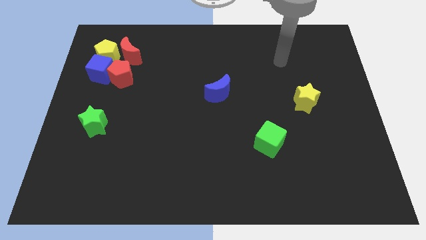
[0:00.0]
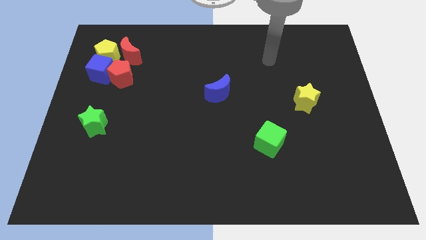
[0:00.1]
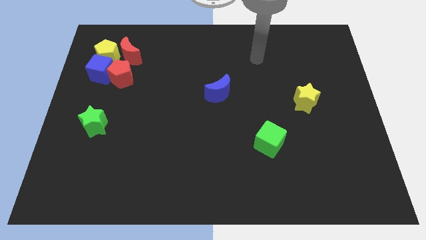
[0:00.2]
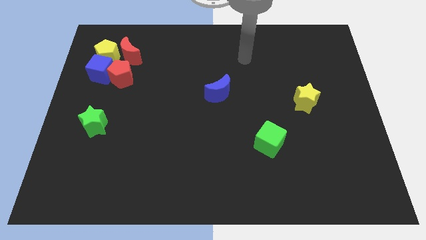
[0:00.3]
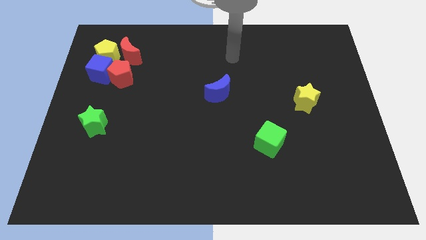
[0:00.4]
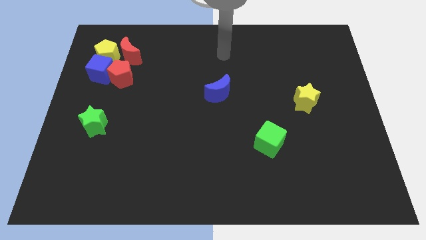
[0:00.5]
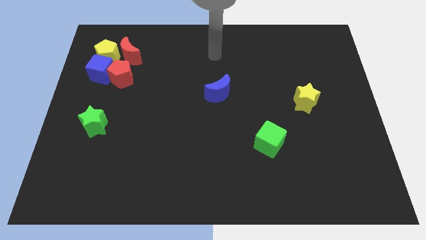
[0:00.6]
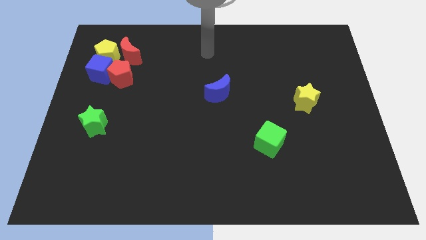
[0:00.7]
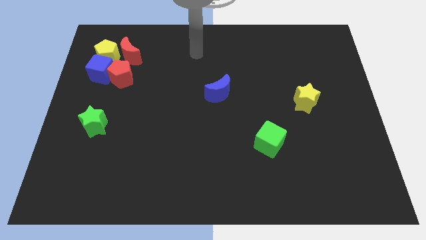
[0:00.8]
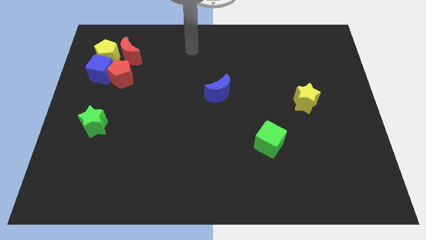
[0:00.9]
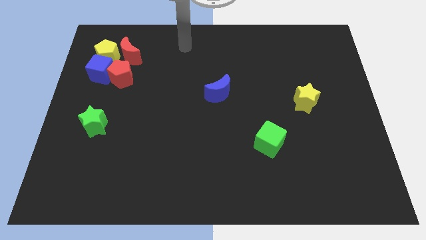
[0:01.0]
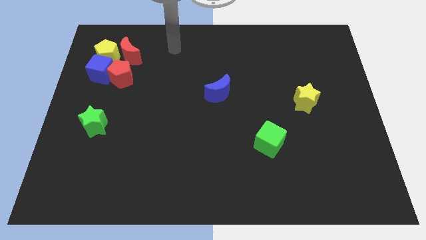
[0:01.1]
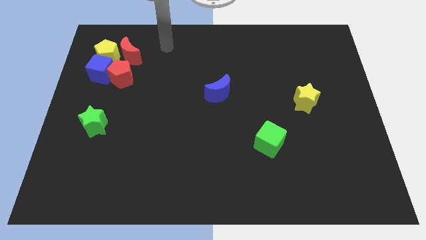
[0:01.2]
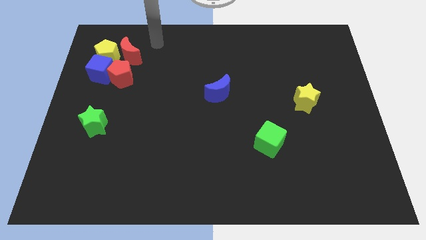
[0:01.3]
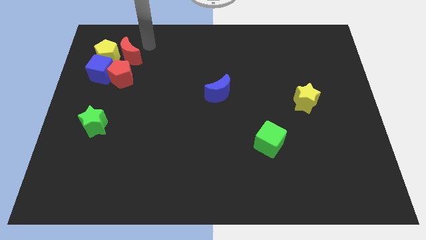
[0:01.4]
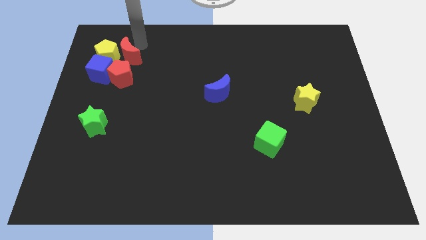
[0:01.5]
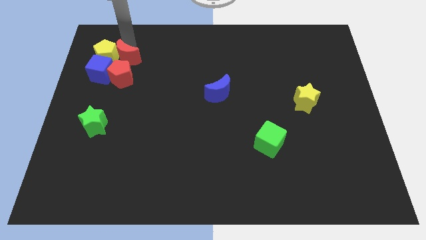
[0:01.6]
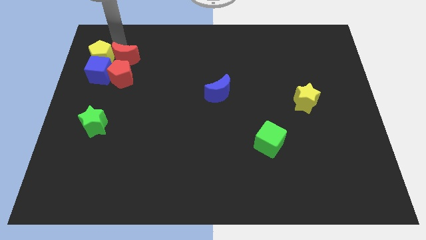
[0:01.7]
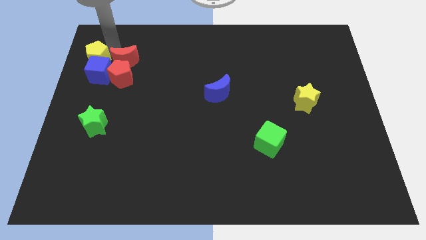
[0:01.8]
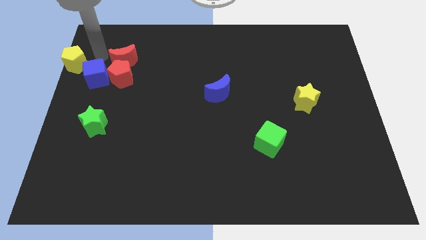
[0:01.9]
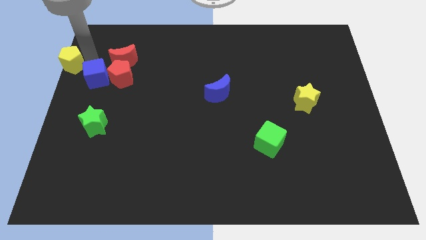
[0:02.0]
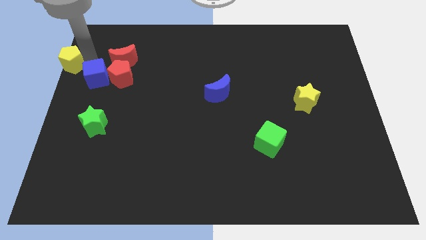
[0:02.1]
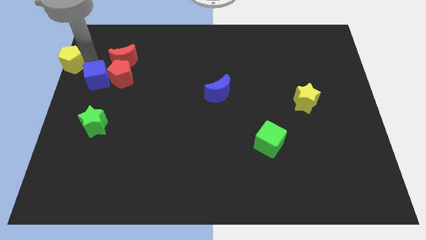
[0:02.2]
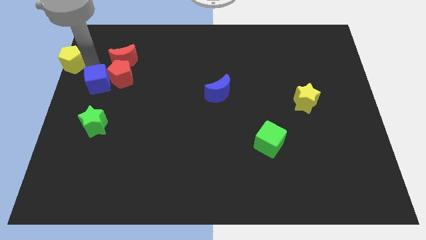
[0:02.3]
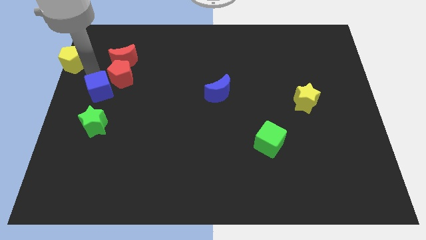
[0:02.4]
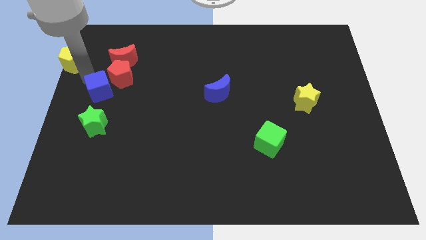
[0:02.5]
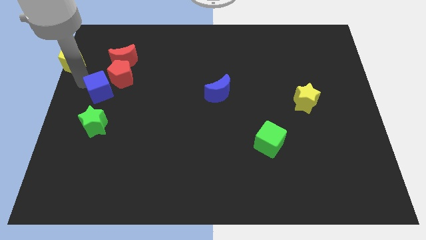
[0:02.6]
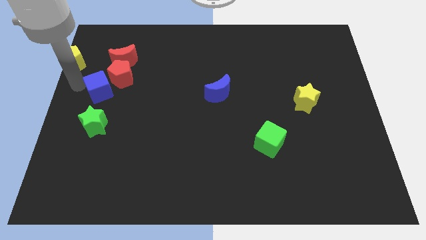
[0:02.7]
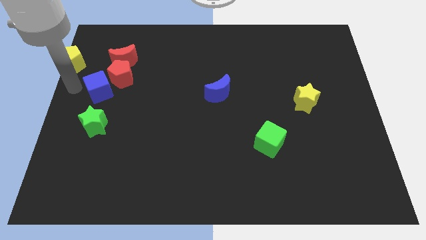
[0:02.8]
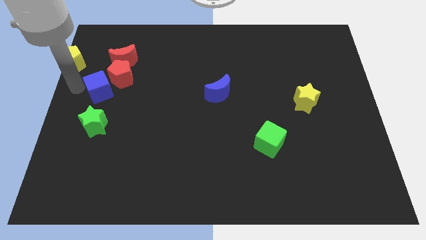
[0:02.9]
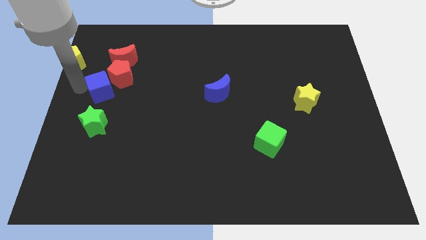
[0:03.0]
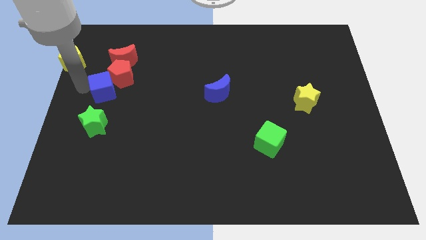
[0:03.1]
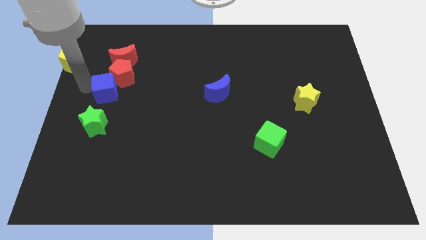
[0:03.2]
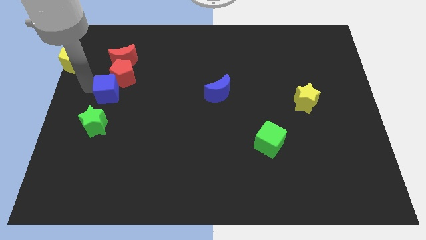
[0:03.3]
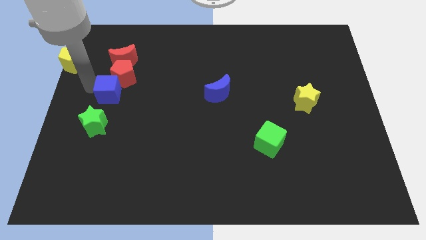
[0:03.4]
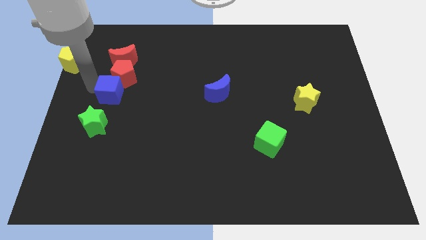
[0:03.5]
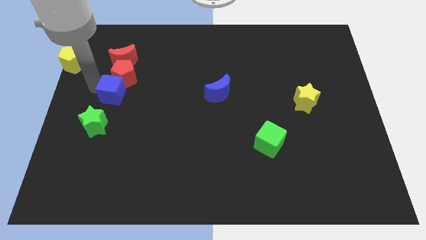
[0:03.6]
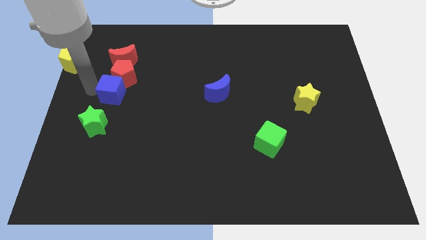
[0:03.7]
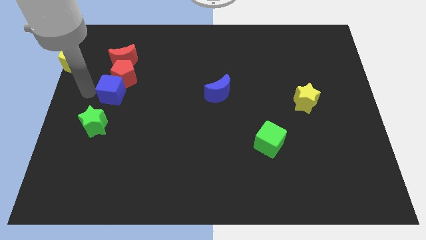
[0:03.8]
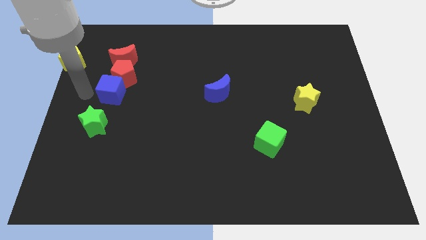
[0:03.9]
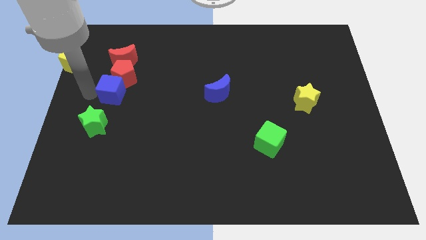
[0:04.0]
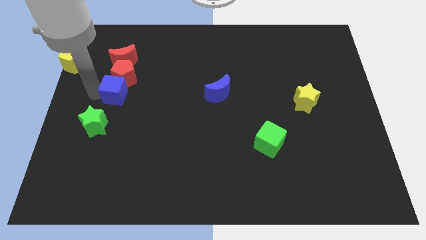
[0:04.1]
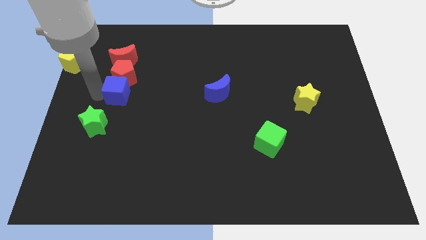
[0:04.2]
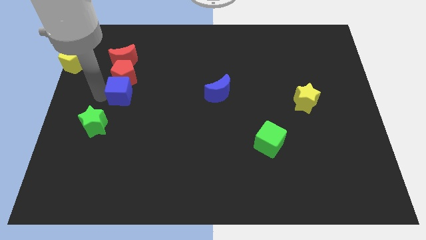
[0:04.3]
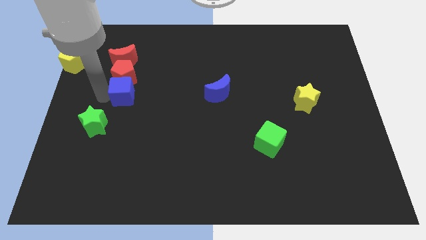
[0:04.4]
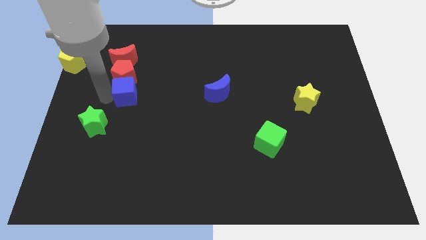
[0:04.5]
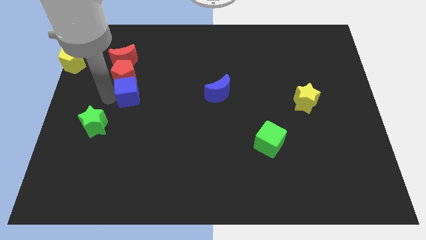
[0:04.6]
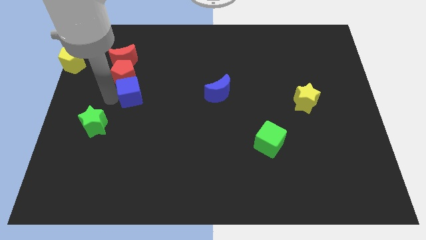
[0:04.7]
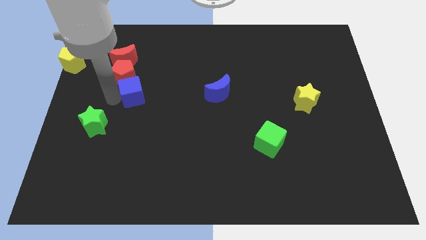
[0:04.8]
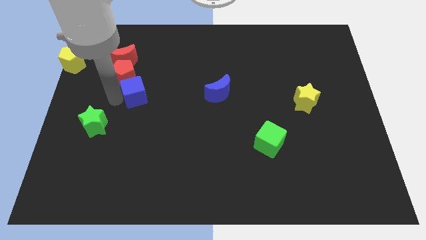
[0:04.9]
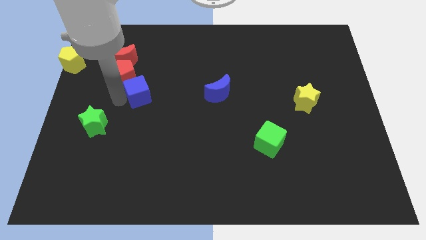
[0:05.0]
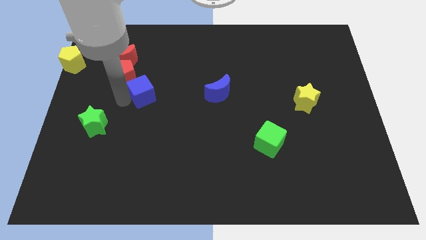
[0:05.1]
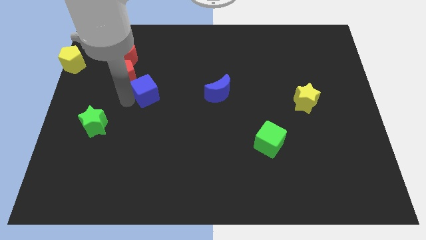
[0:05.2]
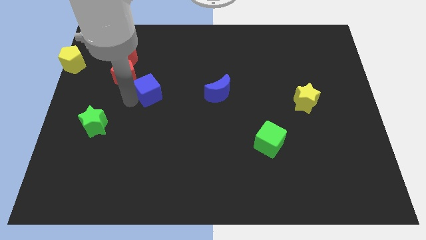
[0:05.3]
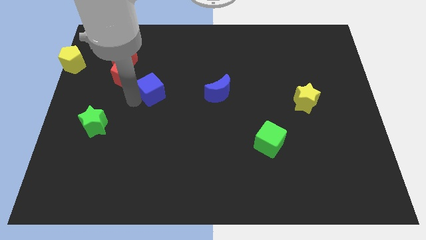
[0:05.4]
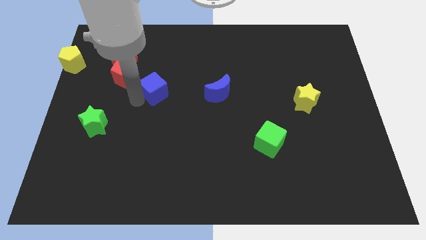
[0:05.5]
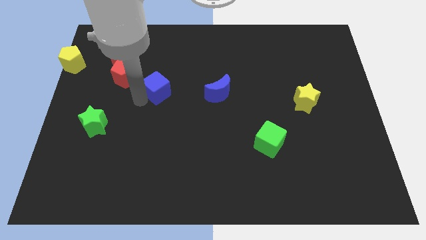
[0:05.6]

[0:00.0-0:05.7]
slide the blue cube just right of the red pentagon

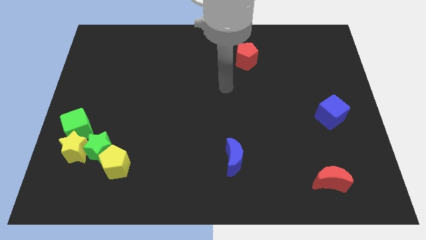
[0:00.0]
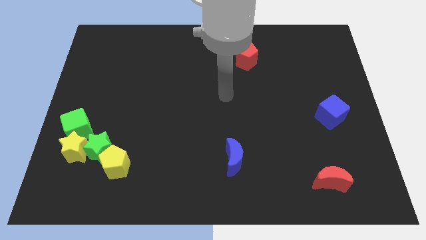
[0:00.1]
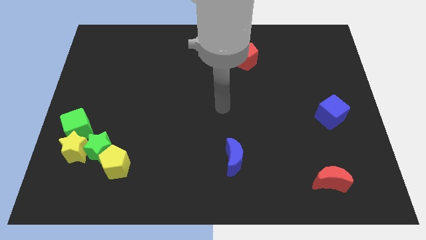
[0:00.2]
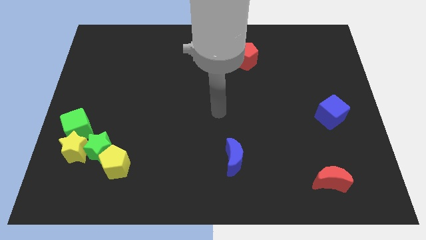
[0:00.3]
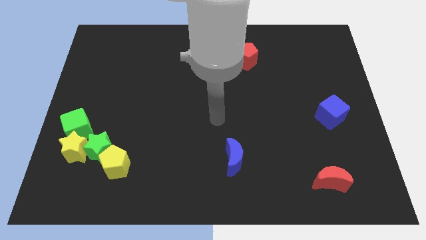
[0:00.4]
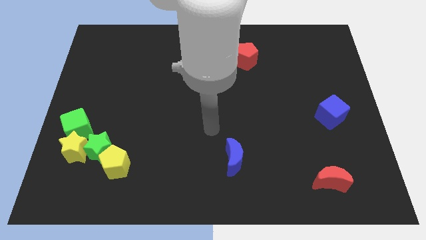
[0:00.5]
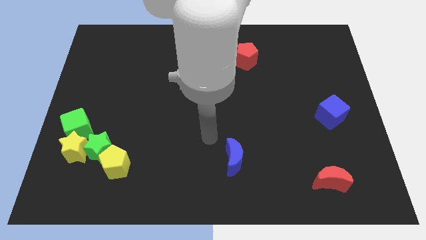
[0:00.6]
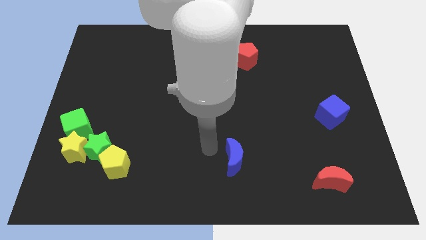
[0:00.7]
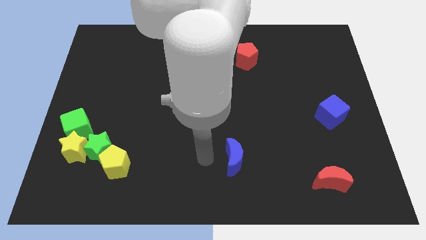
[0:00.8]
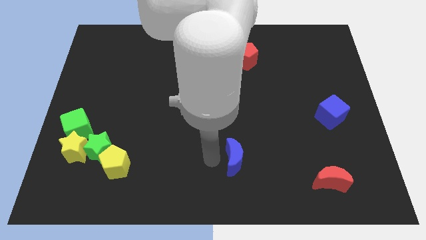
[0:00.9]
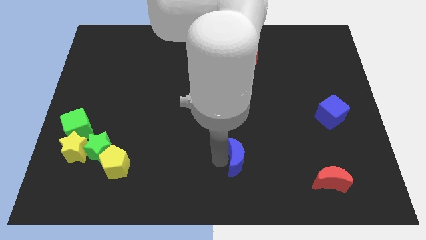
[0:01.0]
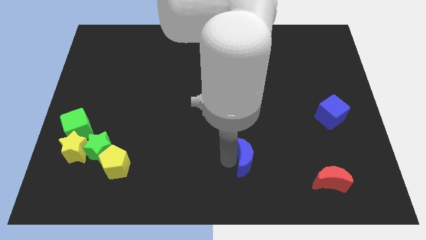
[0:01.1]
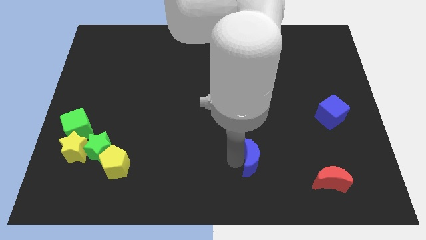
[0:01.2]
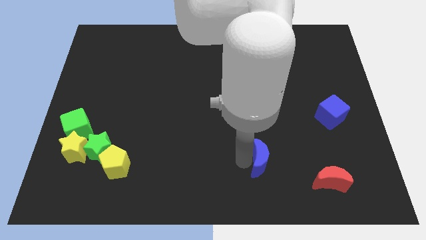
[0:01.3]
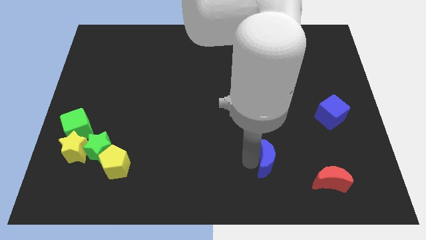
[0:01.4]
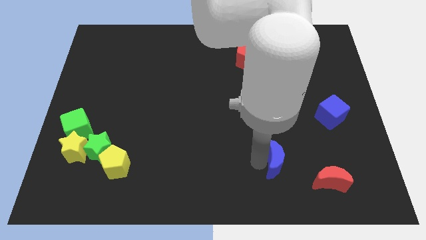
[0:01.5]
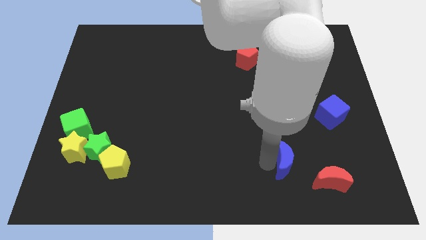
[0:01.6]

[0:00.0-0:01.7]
slide the blue moon to the top left side of the red moon
